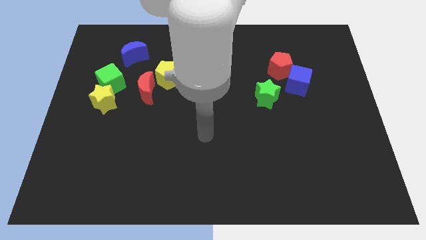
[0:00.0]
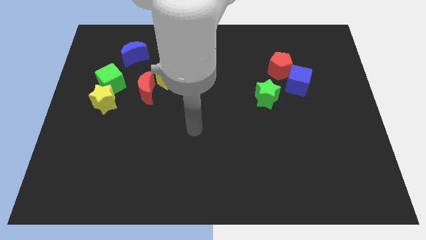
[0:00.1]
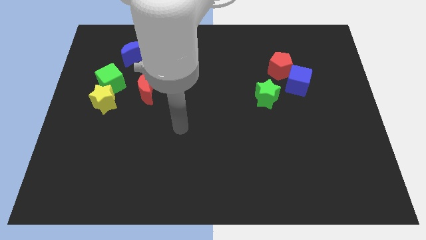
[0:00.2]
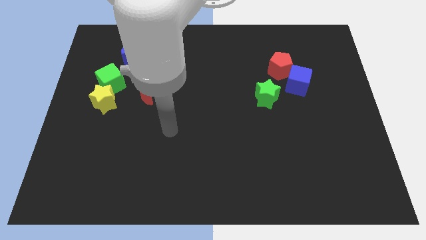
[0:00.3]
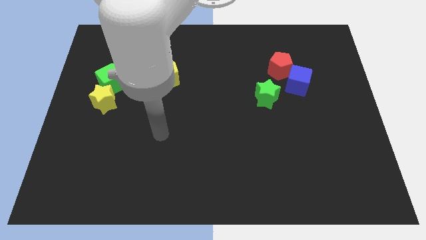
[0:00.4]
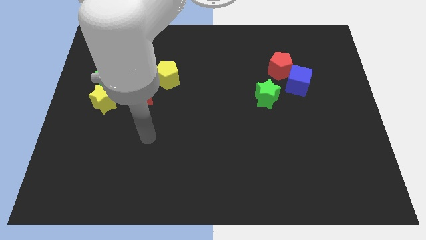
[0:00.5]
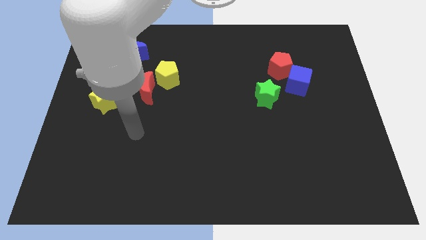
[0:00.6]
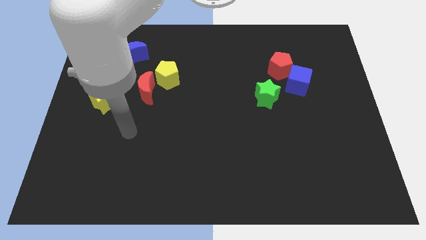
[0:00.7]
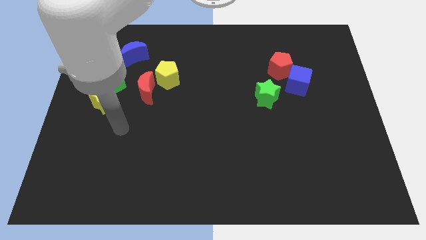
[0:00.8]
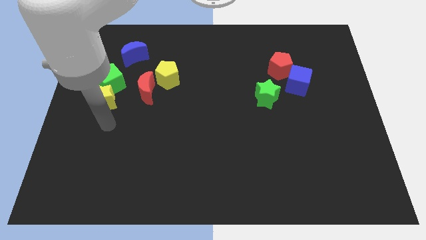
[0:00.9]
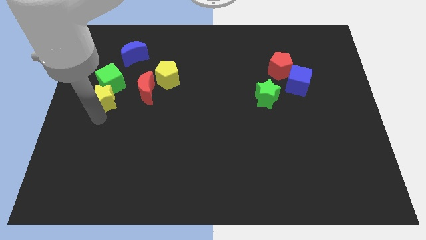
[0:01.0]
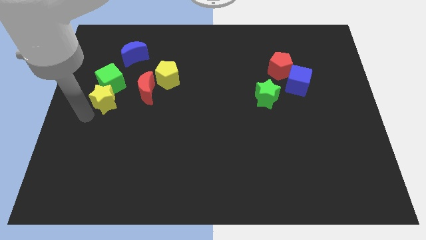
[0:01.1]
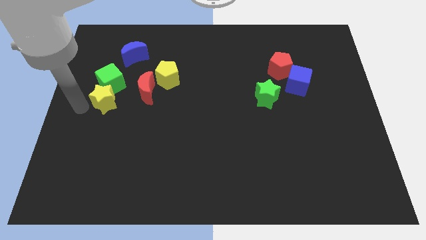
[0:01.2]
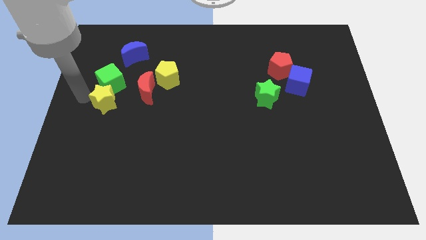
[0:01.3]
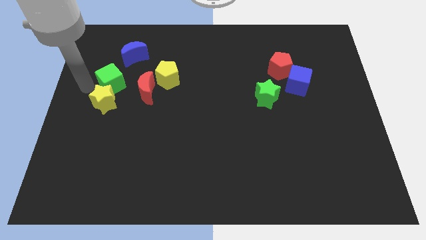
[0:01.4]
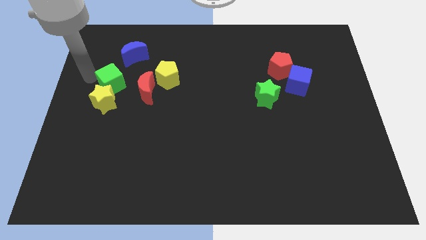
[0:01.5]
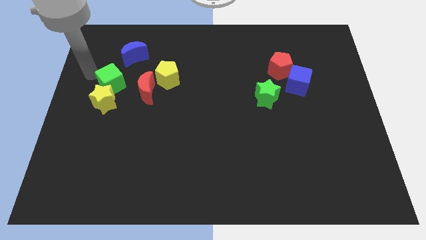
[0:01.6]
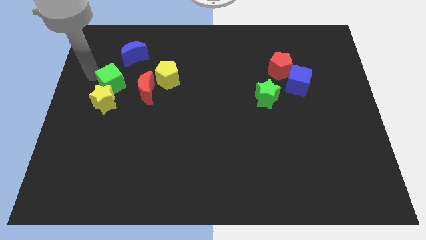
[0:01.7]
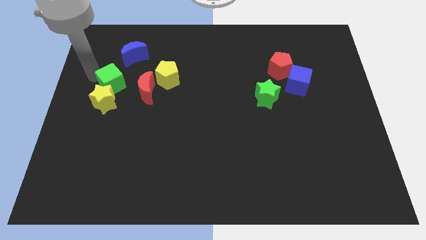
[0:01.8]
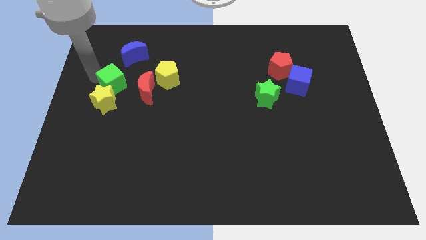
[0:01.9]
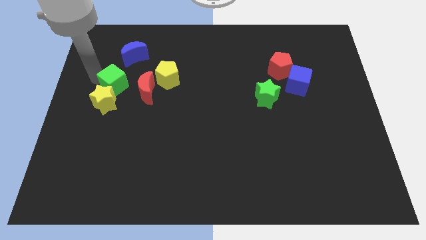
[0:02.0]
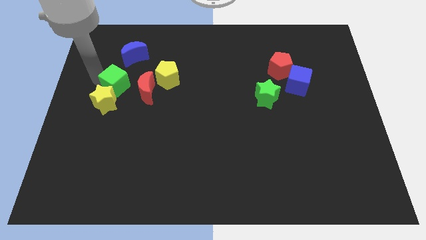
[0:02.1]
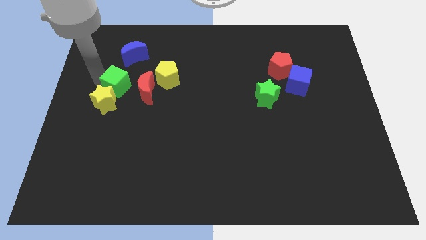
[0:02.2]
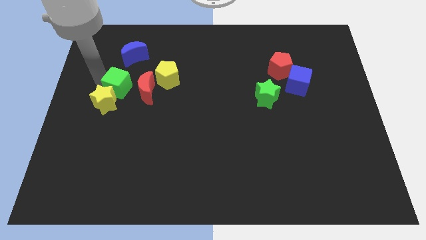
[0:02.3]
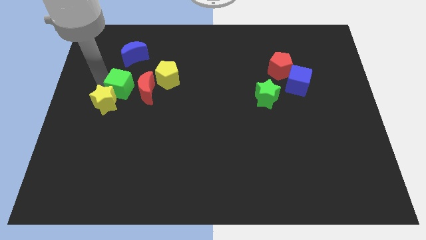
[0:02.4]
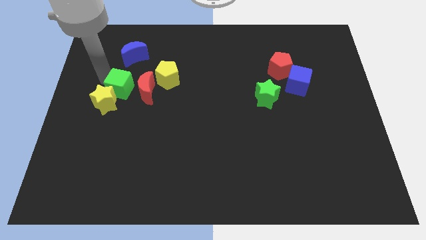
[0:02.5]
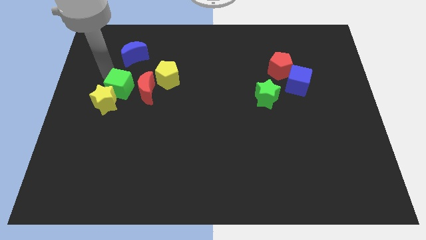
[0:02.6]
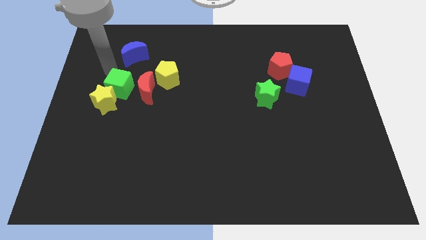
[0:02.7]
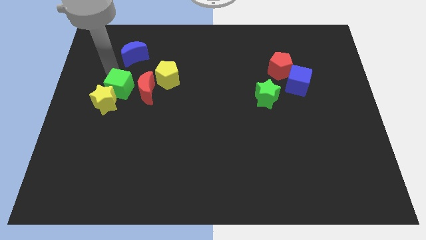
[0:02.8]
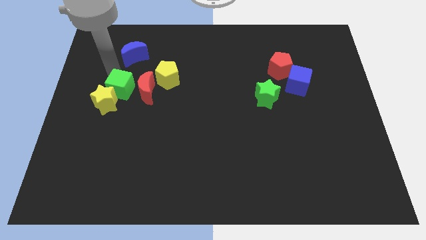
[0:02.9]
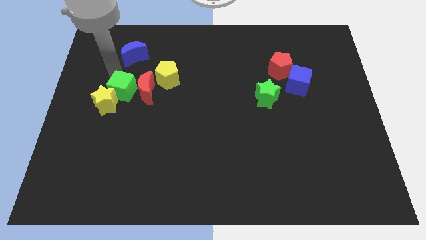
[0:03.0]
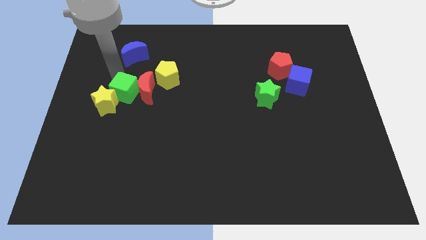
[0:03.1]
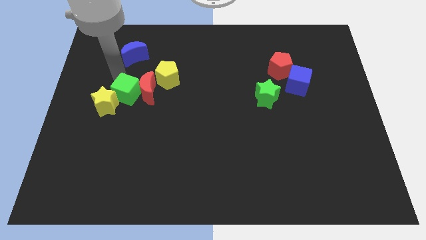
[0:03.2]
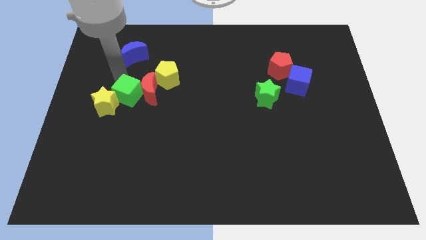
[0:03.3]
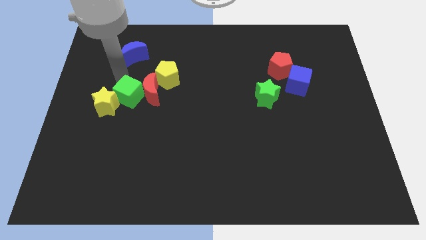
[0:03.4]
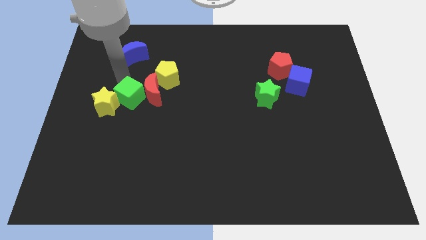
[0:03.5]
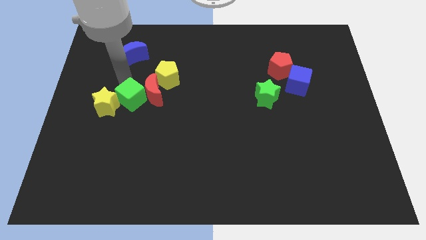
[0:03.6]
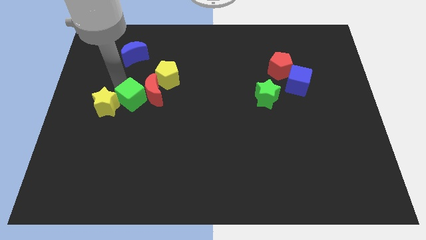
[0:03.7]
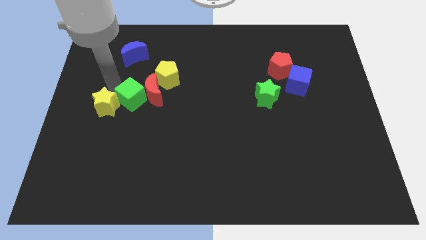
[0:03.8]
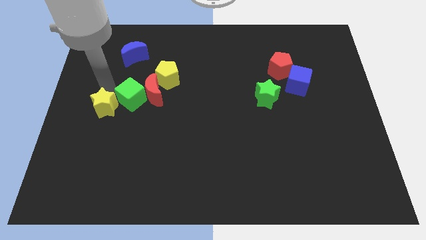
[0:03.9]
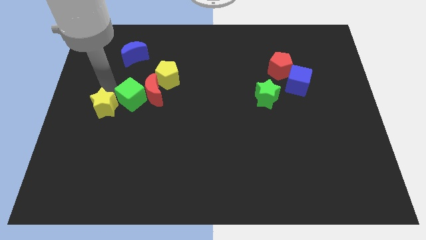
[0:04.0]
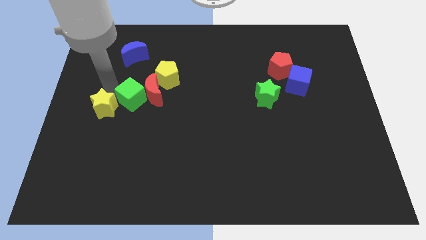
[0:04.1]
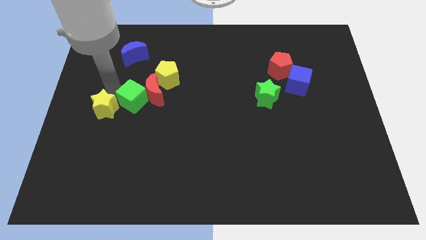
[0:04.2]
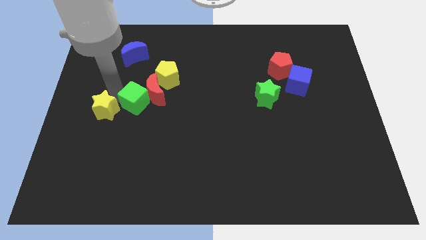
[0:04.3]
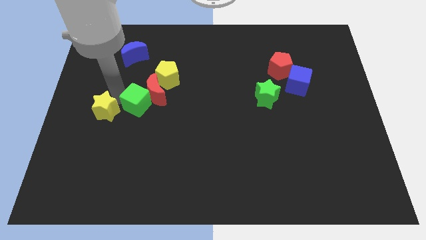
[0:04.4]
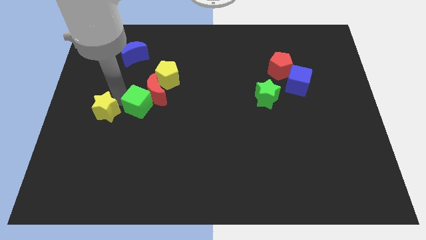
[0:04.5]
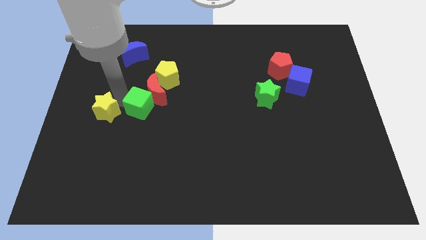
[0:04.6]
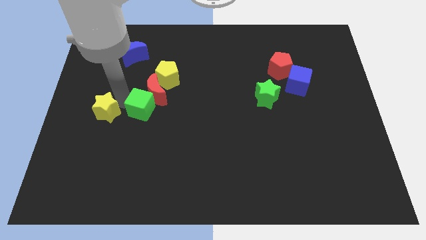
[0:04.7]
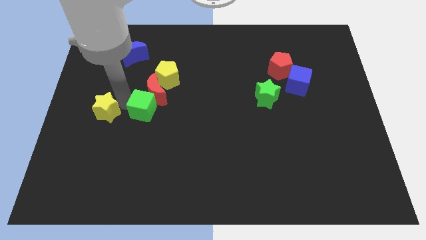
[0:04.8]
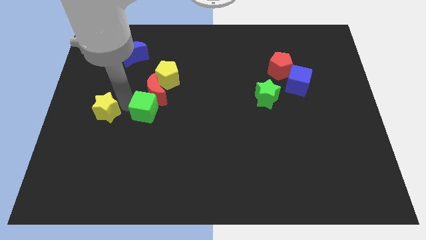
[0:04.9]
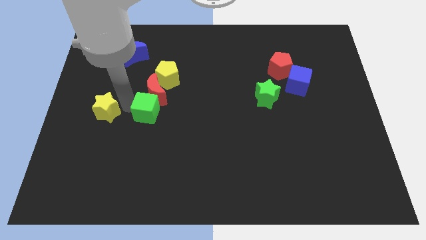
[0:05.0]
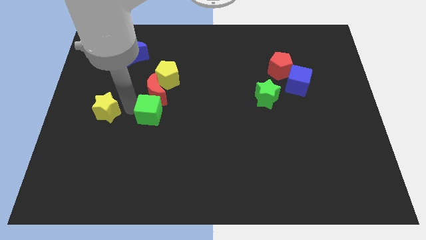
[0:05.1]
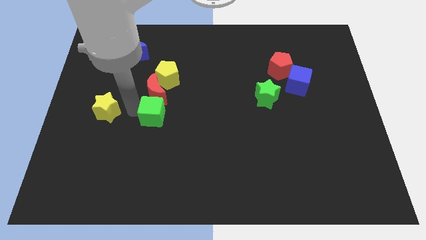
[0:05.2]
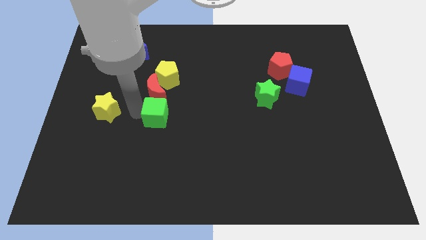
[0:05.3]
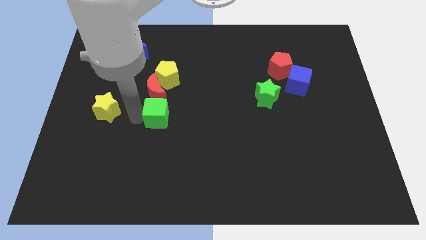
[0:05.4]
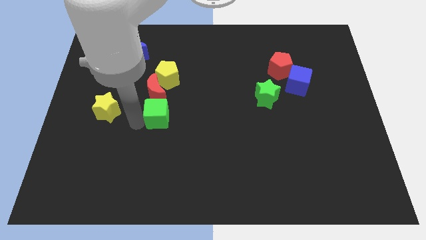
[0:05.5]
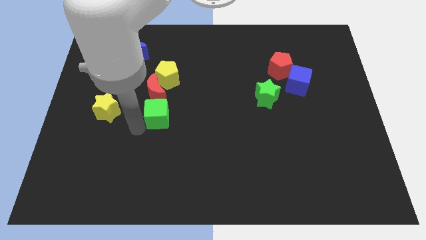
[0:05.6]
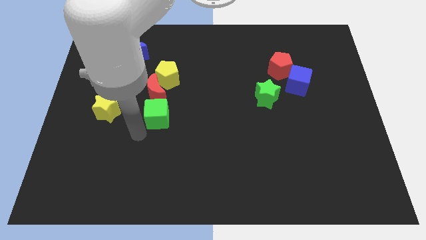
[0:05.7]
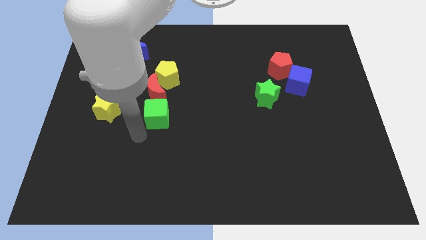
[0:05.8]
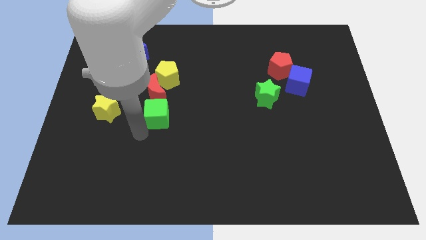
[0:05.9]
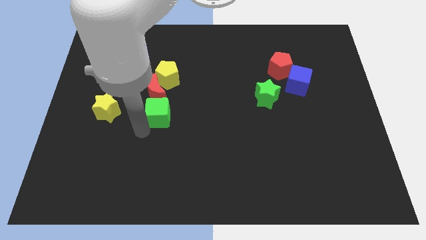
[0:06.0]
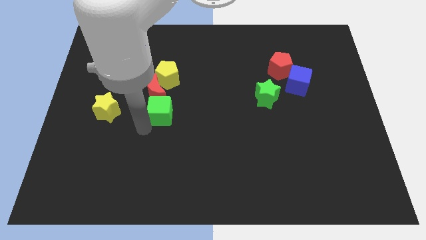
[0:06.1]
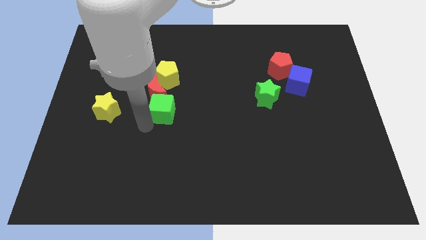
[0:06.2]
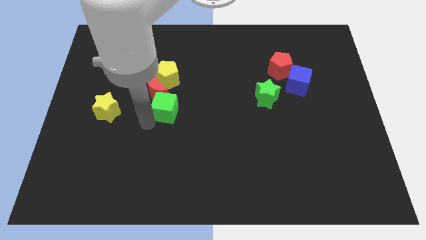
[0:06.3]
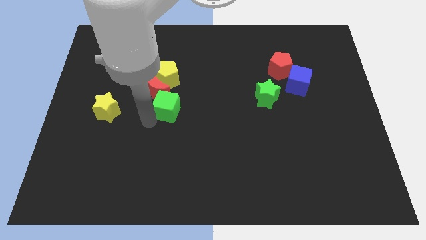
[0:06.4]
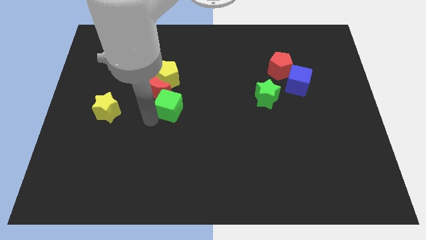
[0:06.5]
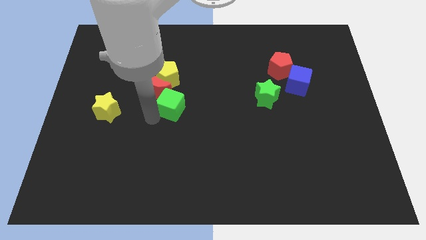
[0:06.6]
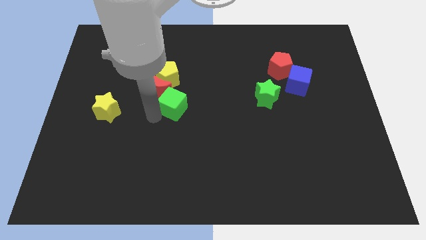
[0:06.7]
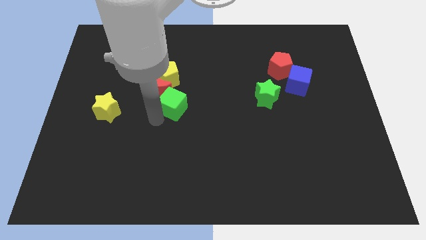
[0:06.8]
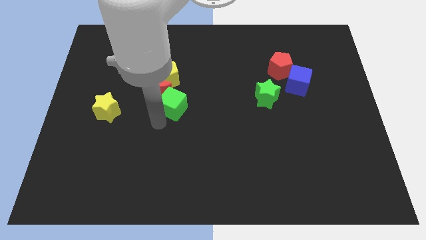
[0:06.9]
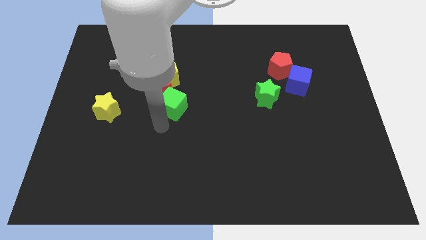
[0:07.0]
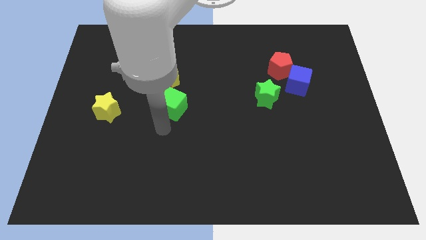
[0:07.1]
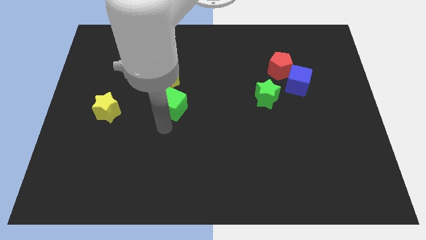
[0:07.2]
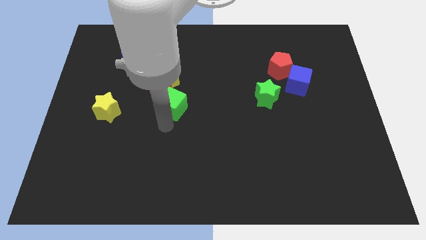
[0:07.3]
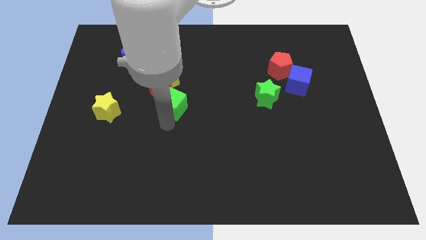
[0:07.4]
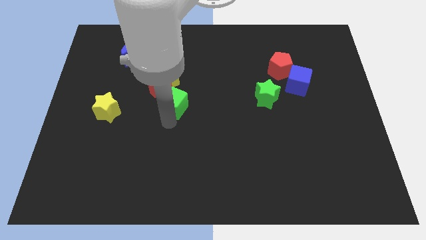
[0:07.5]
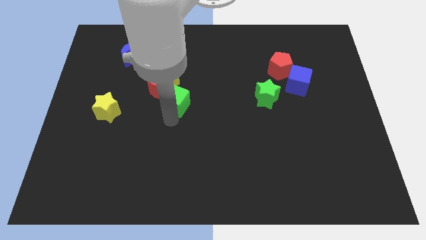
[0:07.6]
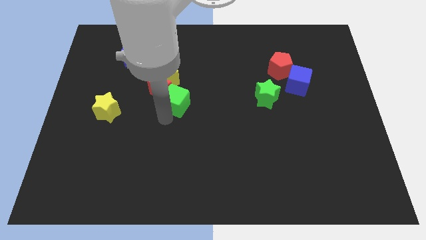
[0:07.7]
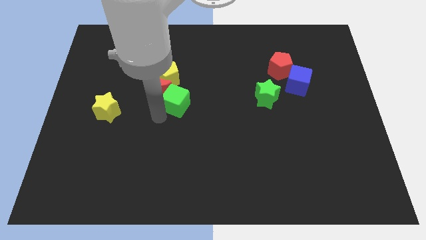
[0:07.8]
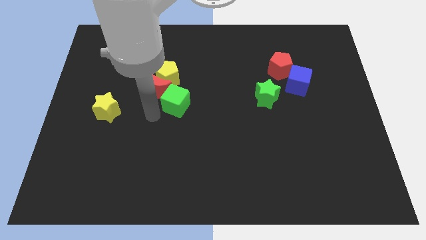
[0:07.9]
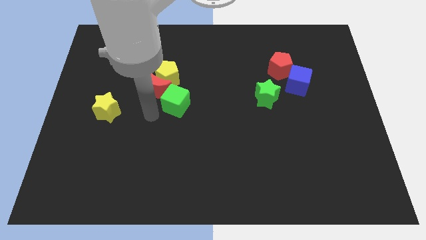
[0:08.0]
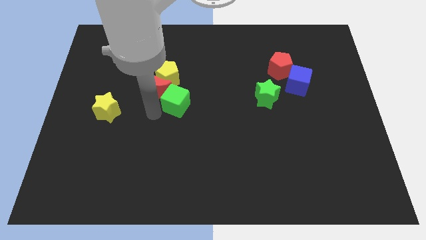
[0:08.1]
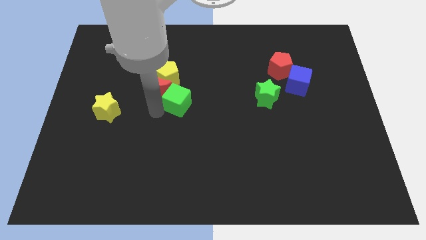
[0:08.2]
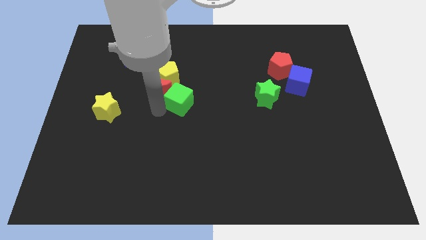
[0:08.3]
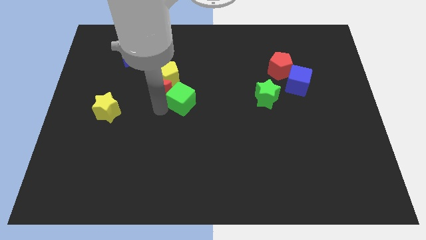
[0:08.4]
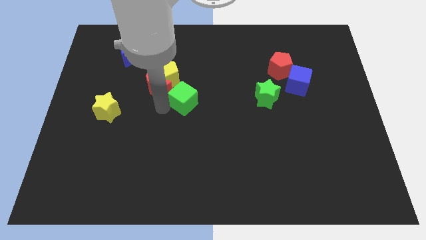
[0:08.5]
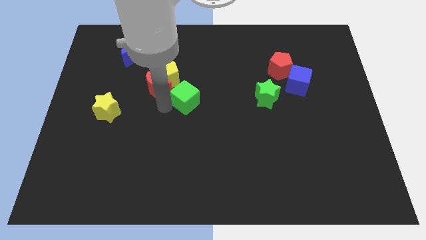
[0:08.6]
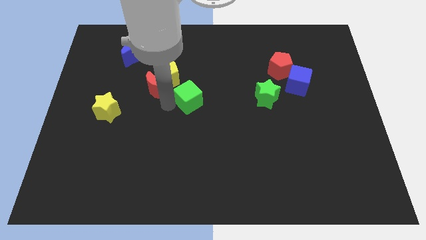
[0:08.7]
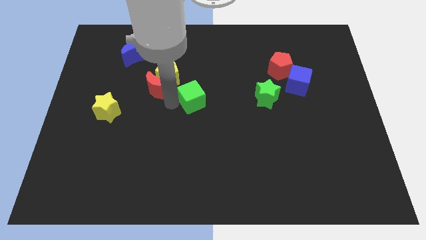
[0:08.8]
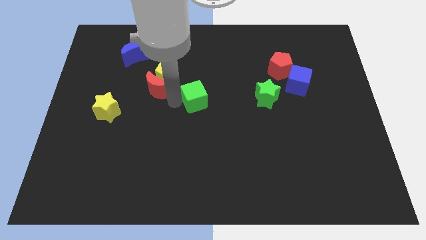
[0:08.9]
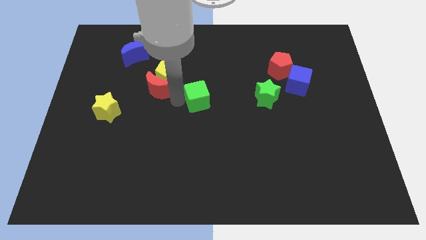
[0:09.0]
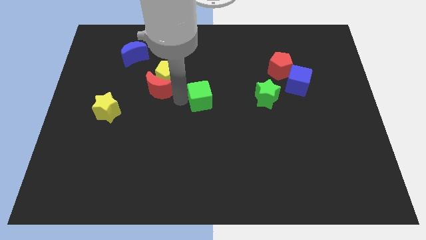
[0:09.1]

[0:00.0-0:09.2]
put the green cube to the left of the green star
